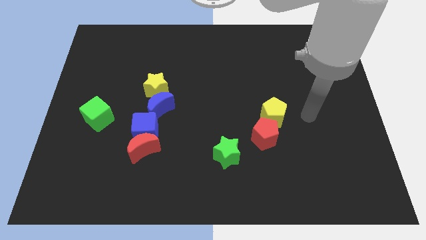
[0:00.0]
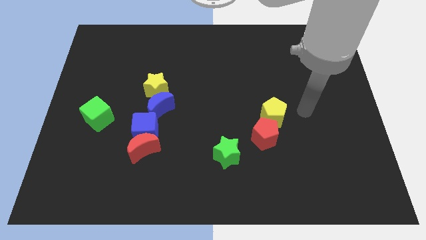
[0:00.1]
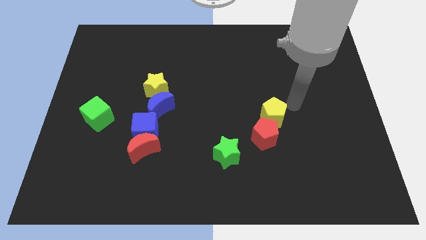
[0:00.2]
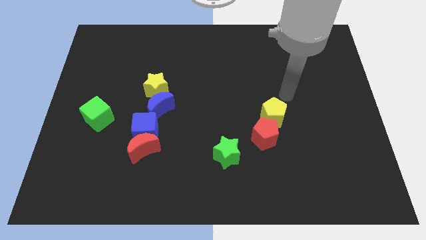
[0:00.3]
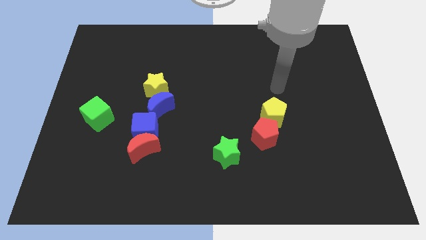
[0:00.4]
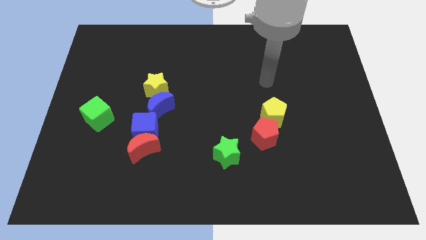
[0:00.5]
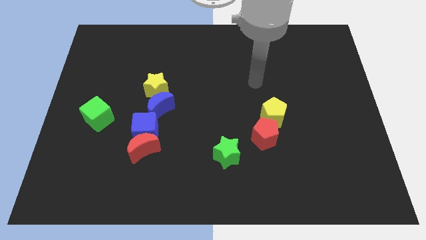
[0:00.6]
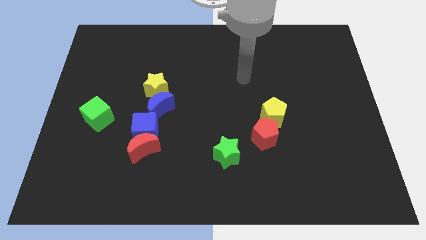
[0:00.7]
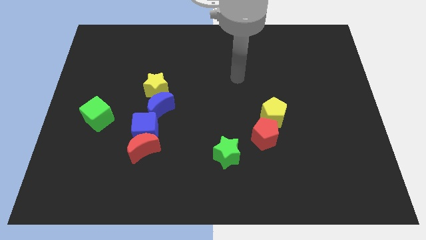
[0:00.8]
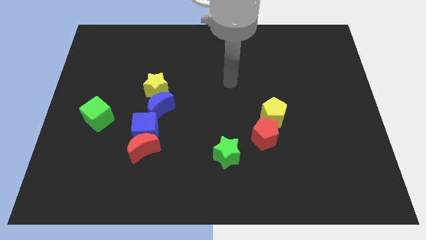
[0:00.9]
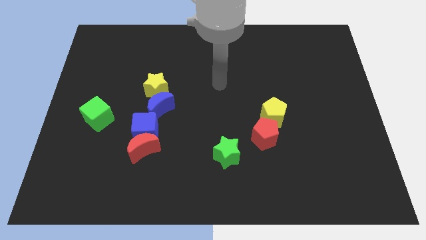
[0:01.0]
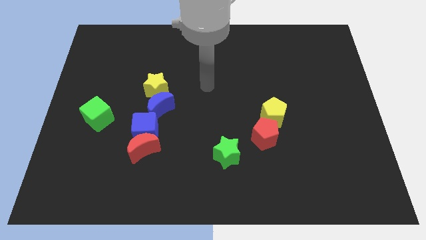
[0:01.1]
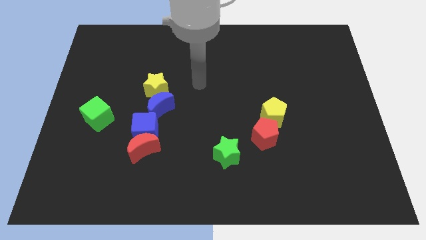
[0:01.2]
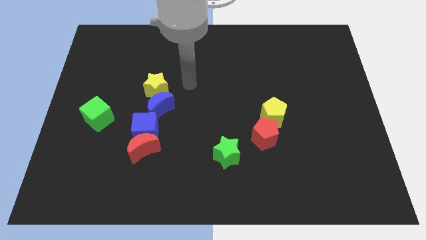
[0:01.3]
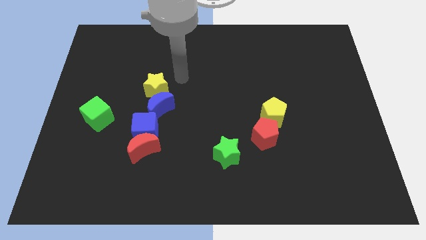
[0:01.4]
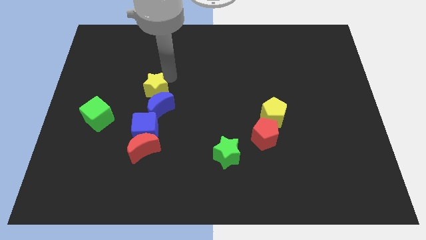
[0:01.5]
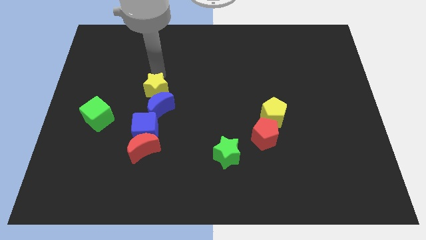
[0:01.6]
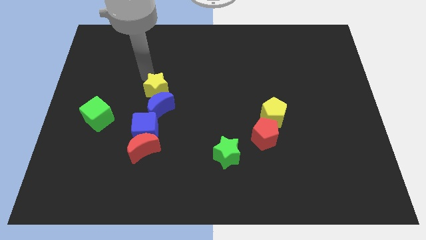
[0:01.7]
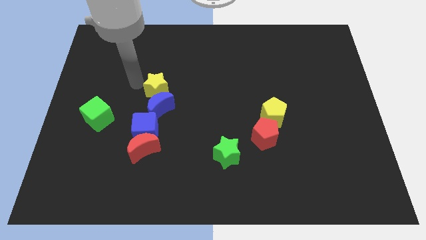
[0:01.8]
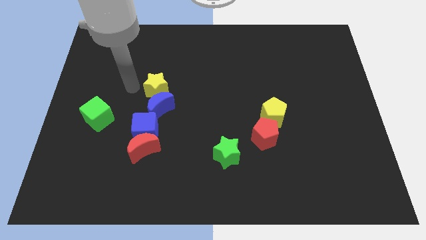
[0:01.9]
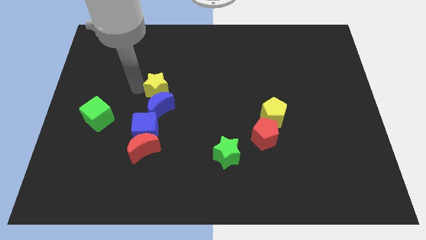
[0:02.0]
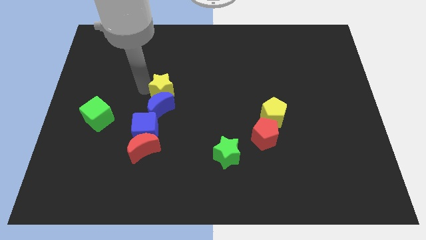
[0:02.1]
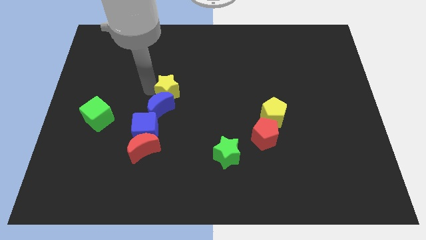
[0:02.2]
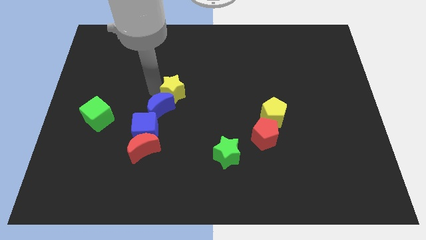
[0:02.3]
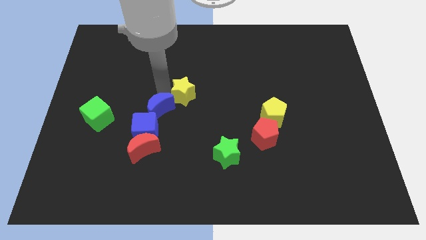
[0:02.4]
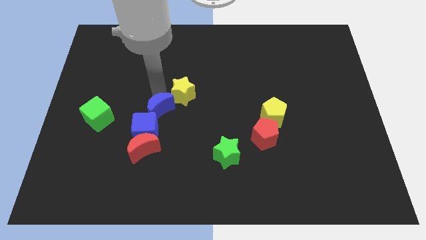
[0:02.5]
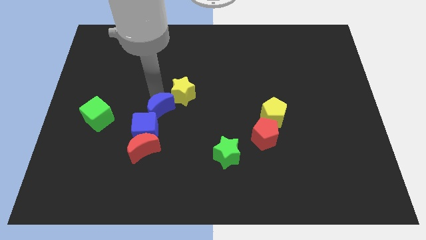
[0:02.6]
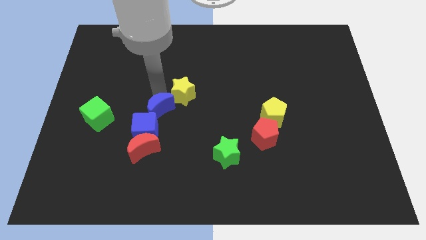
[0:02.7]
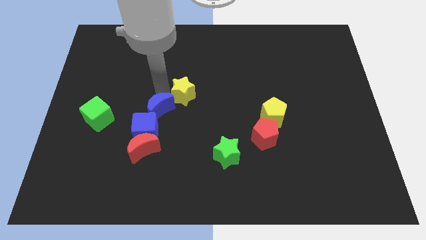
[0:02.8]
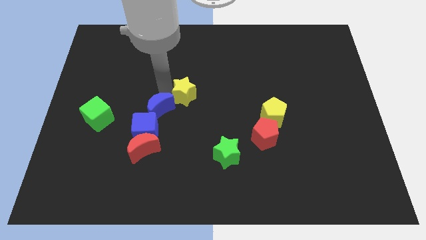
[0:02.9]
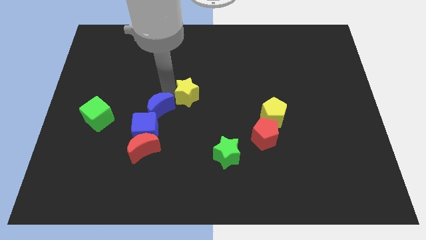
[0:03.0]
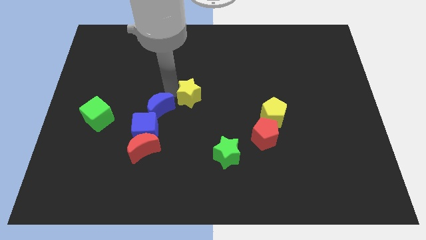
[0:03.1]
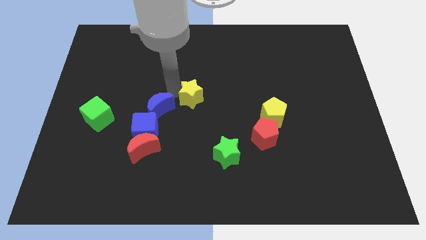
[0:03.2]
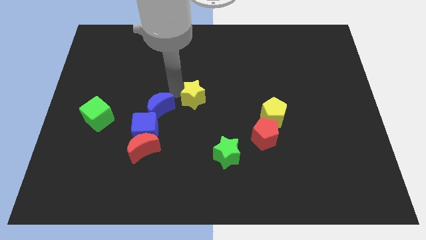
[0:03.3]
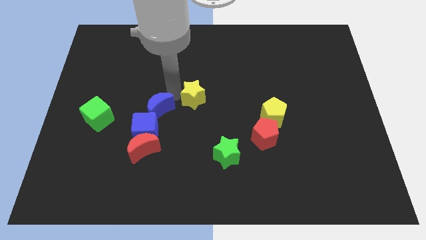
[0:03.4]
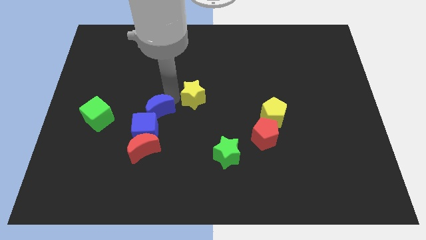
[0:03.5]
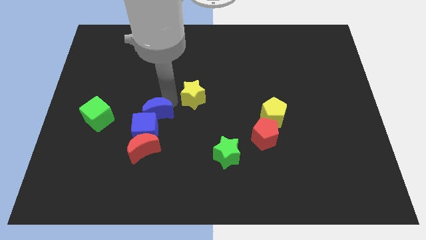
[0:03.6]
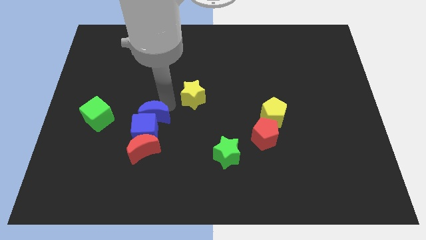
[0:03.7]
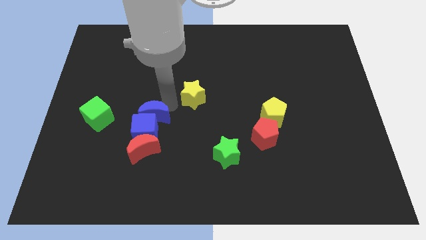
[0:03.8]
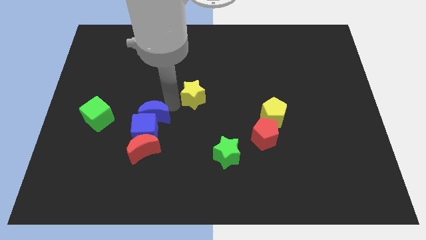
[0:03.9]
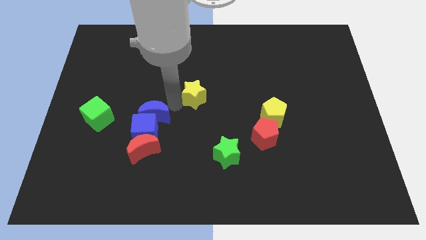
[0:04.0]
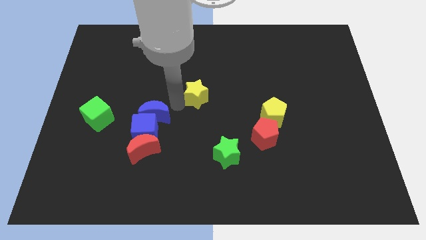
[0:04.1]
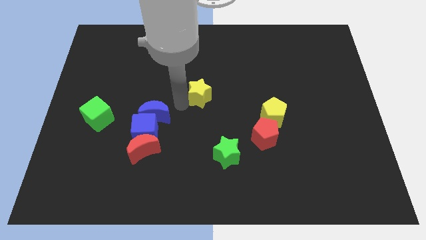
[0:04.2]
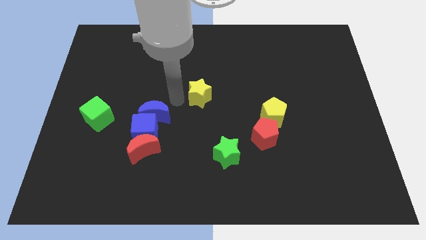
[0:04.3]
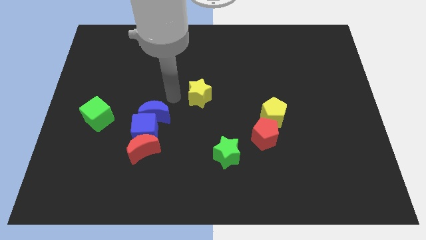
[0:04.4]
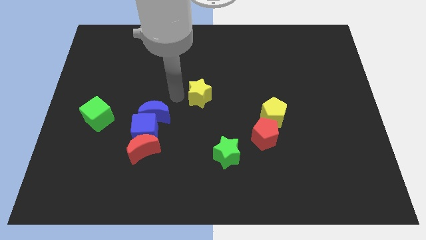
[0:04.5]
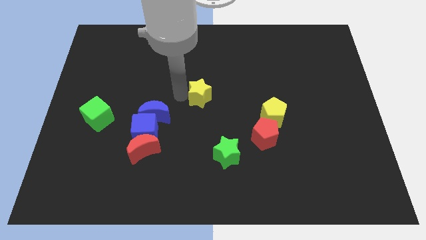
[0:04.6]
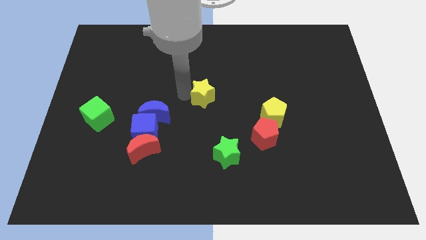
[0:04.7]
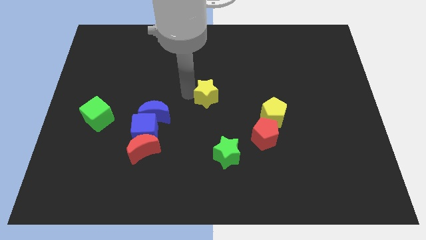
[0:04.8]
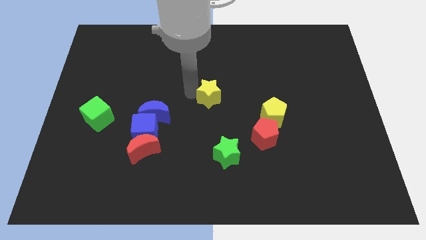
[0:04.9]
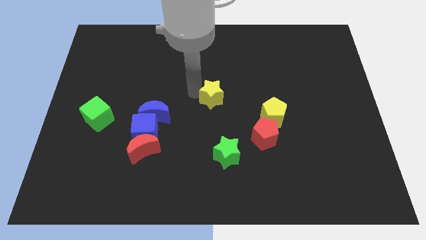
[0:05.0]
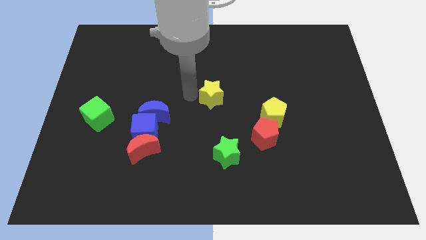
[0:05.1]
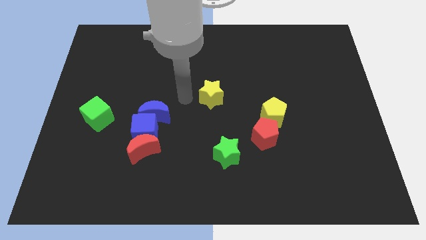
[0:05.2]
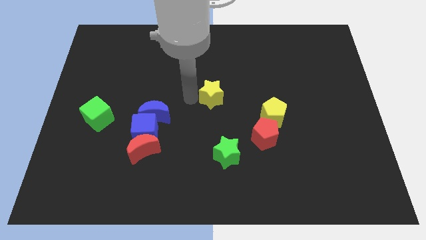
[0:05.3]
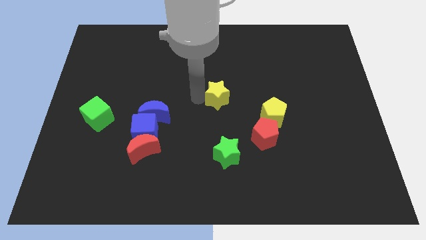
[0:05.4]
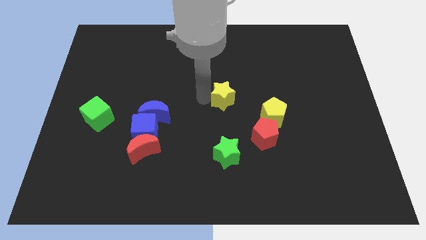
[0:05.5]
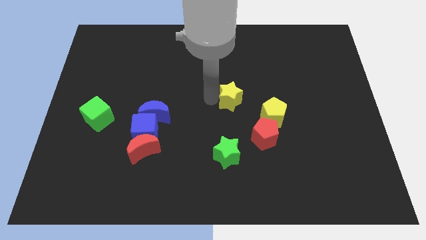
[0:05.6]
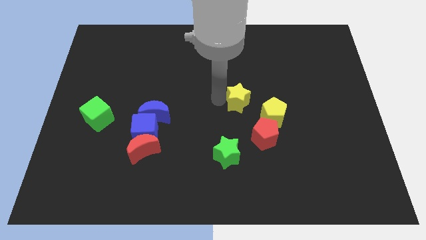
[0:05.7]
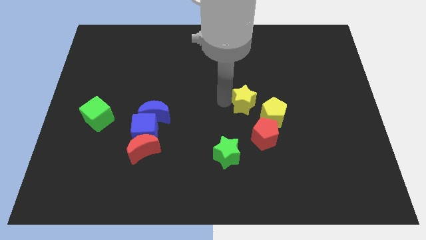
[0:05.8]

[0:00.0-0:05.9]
push the yellow star right

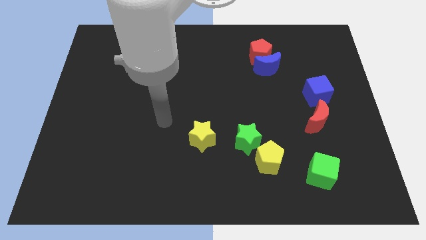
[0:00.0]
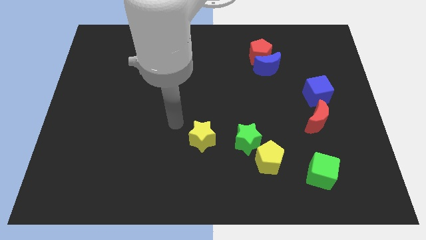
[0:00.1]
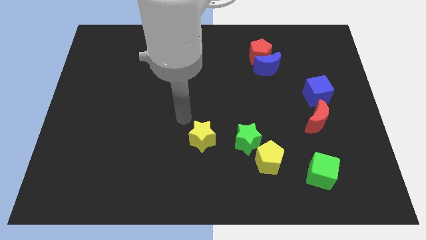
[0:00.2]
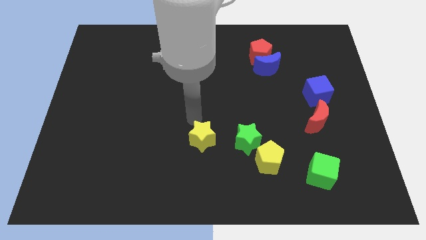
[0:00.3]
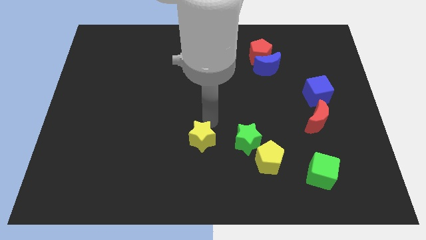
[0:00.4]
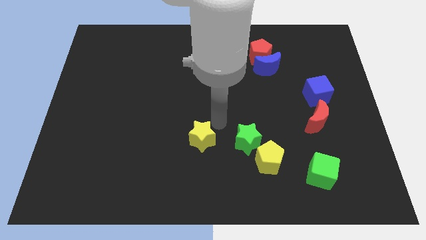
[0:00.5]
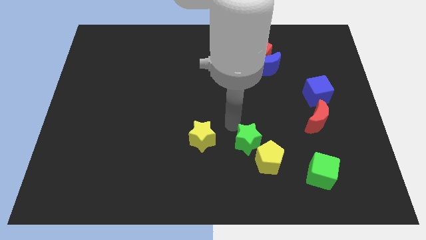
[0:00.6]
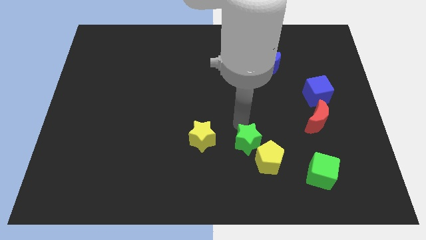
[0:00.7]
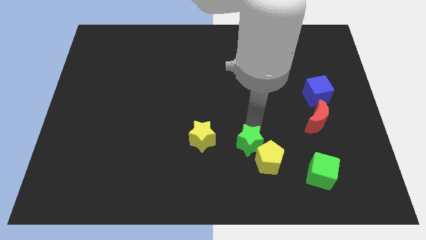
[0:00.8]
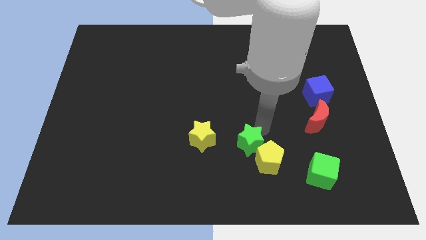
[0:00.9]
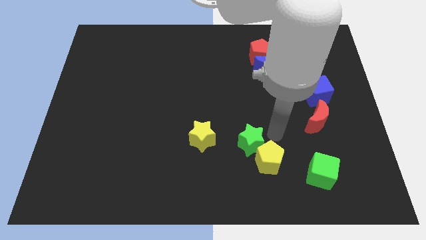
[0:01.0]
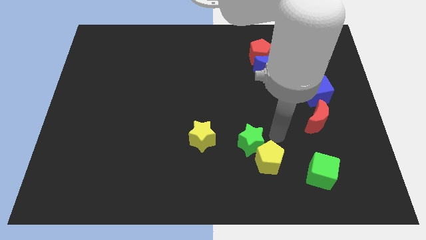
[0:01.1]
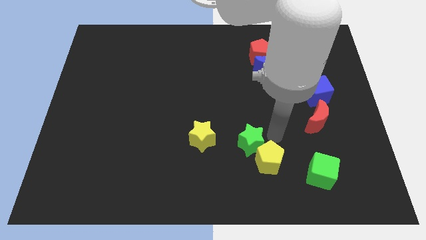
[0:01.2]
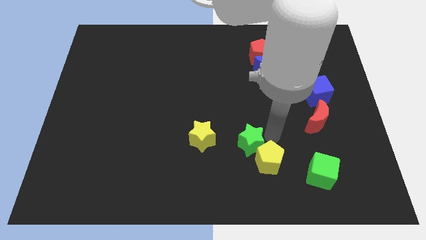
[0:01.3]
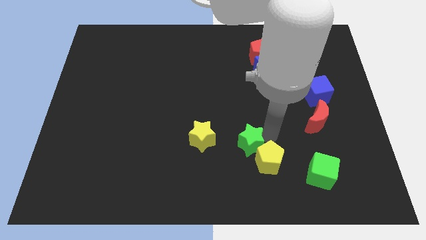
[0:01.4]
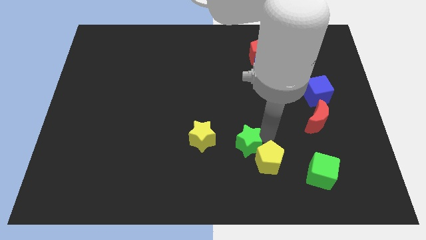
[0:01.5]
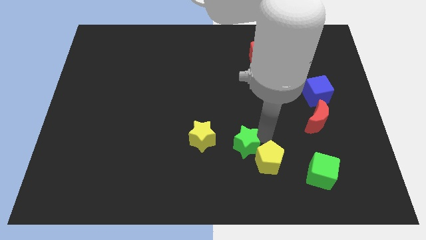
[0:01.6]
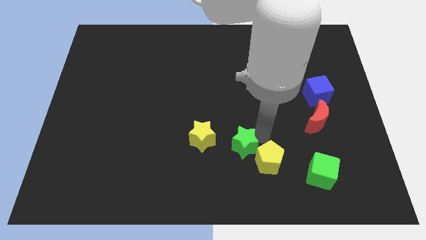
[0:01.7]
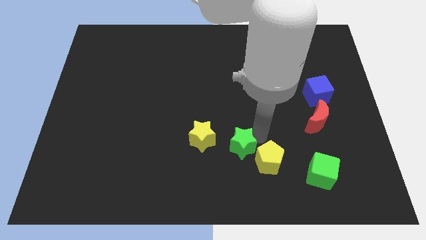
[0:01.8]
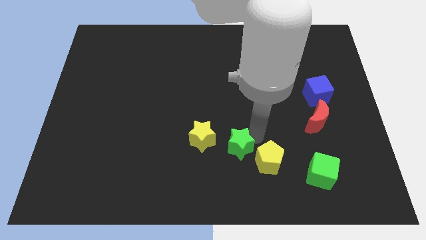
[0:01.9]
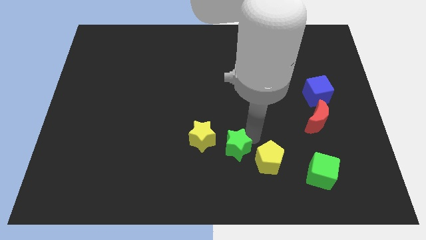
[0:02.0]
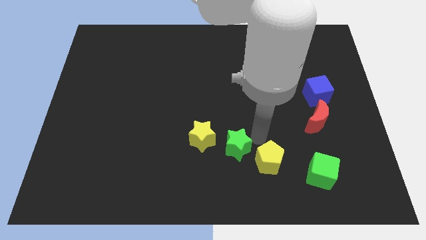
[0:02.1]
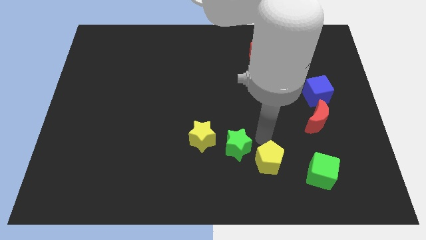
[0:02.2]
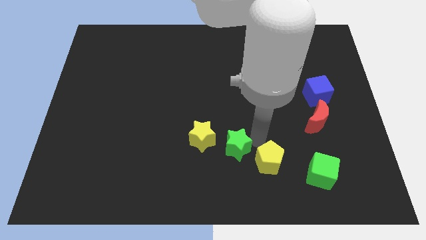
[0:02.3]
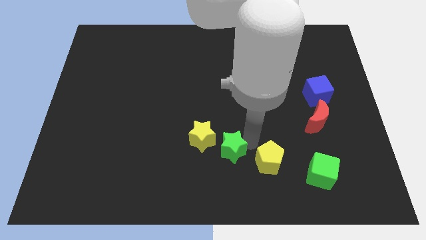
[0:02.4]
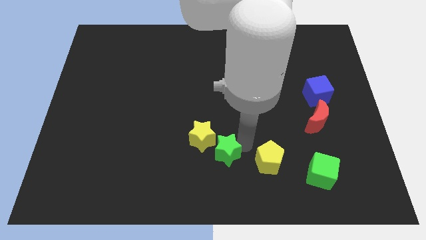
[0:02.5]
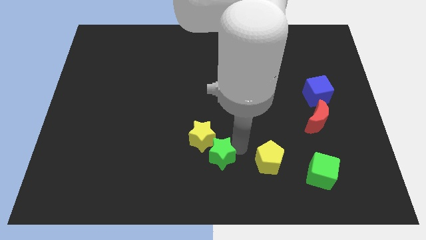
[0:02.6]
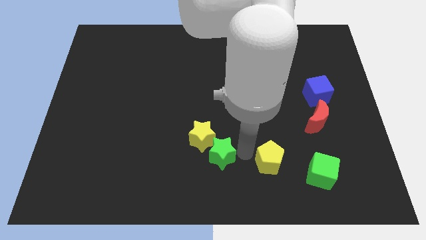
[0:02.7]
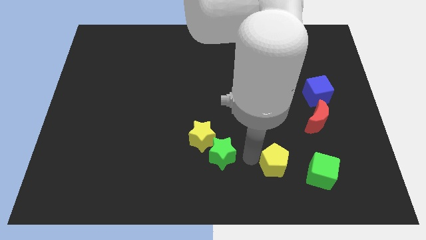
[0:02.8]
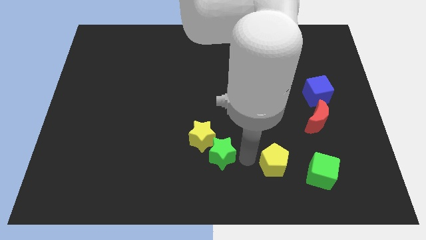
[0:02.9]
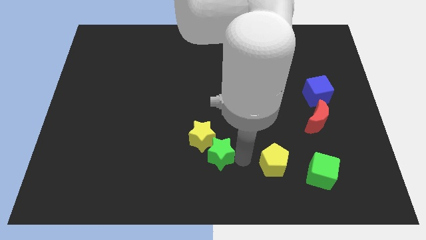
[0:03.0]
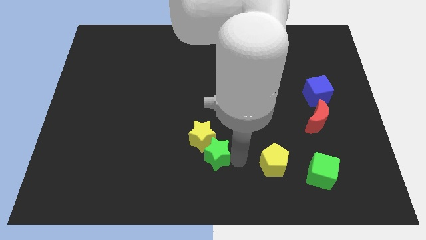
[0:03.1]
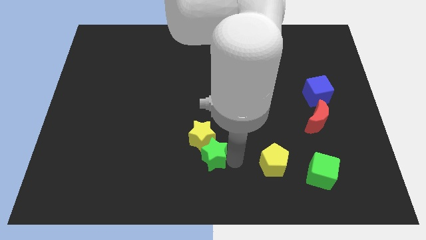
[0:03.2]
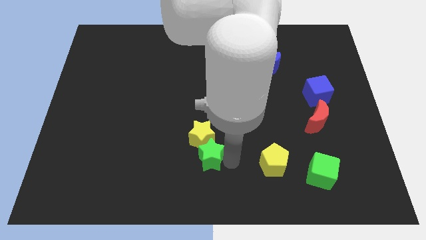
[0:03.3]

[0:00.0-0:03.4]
slightly push the green star to the left
